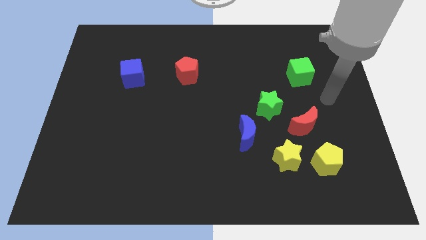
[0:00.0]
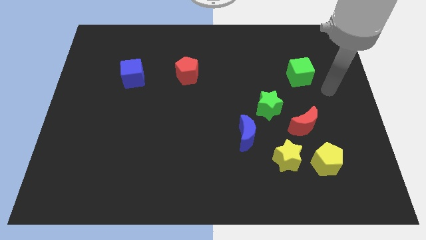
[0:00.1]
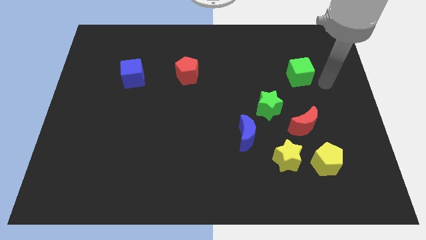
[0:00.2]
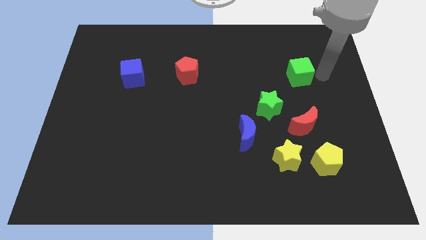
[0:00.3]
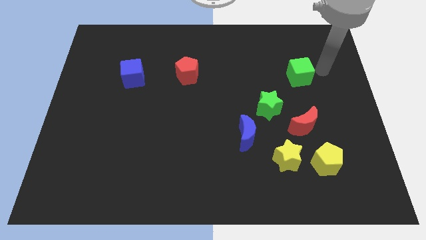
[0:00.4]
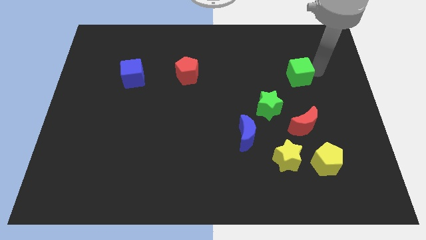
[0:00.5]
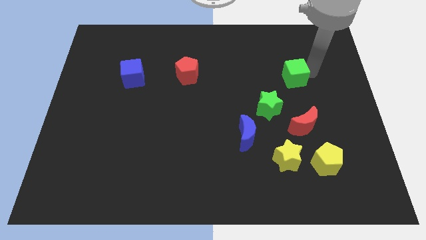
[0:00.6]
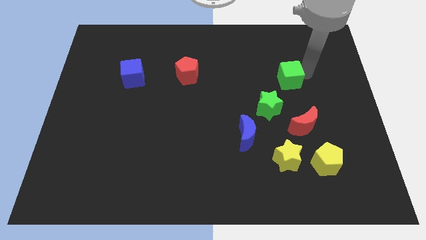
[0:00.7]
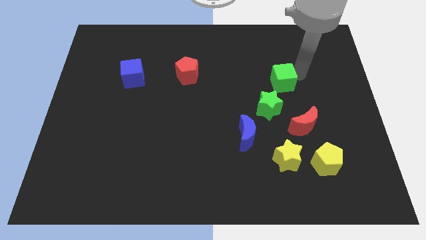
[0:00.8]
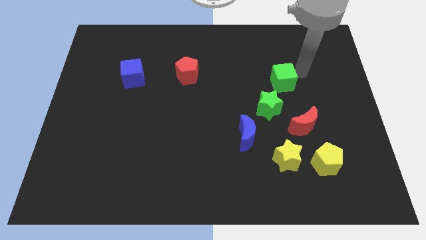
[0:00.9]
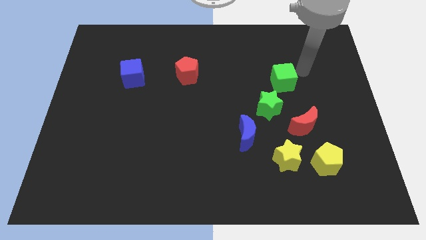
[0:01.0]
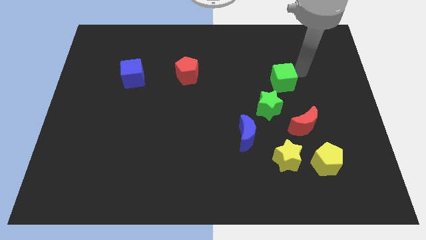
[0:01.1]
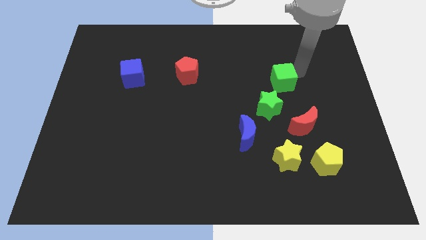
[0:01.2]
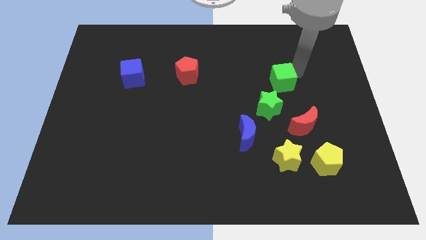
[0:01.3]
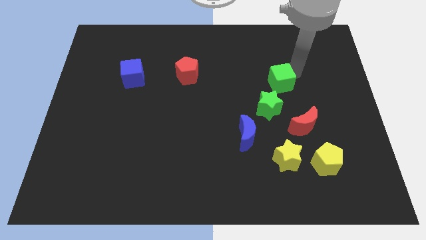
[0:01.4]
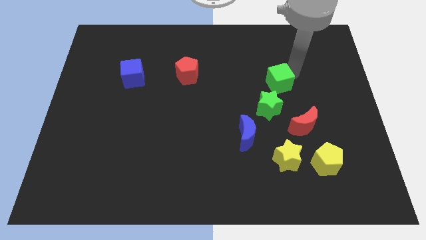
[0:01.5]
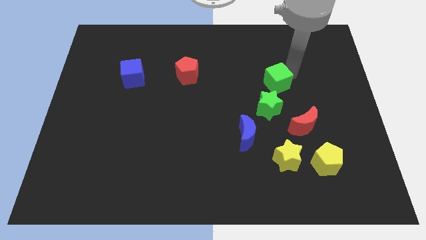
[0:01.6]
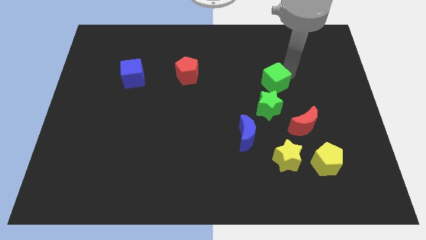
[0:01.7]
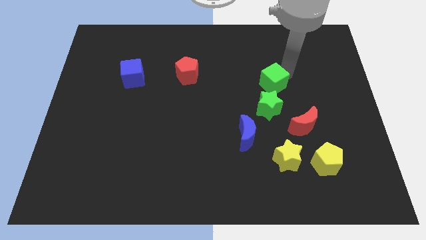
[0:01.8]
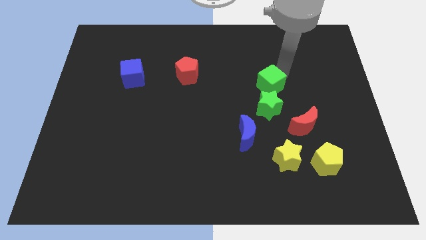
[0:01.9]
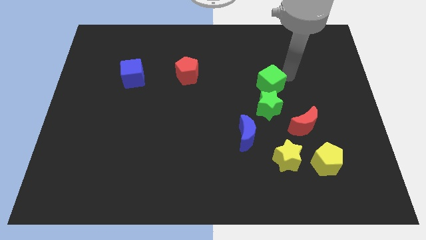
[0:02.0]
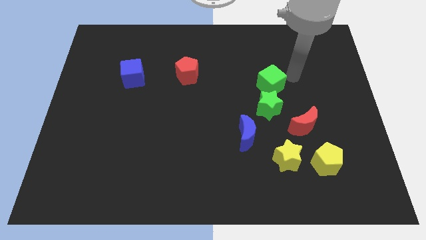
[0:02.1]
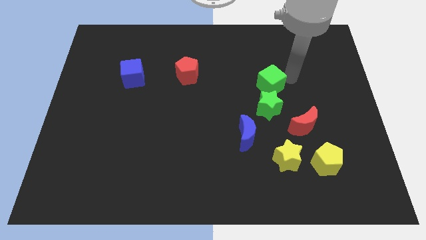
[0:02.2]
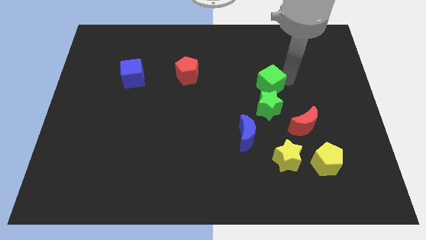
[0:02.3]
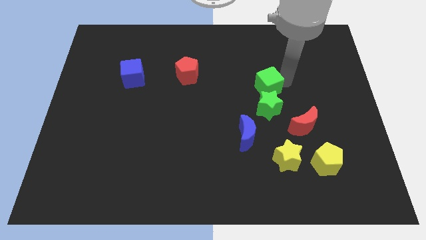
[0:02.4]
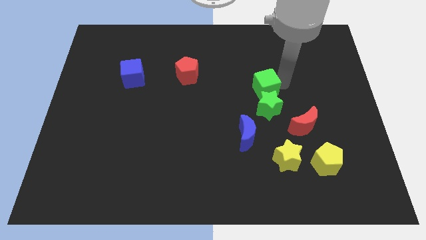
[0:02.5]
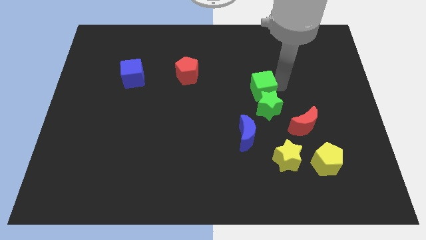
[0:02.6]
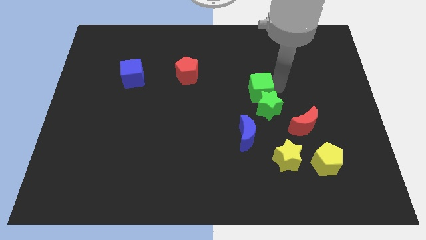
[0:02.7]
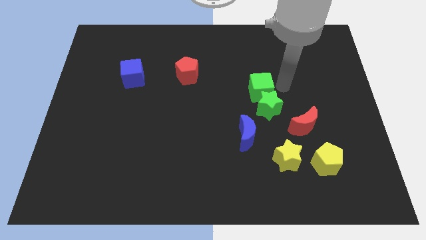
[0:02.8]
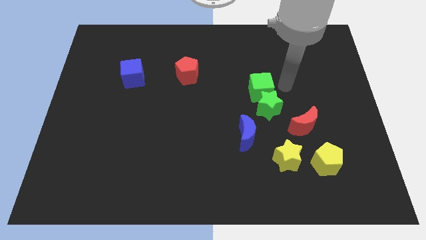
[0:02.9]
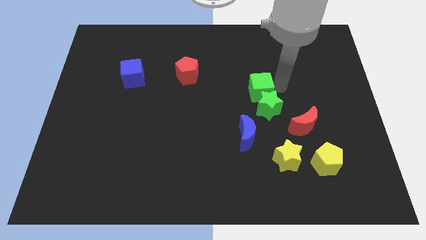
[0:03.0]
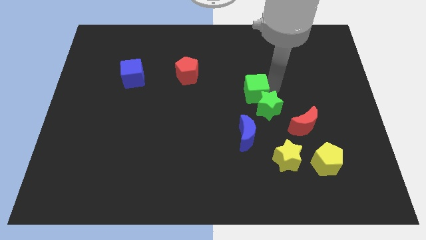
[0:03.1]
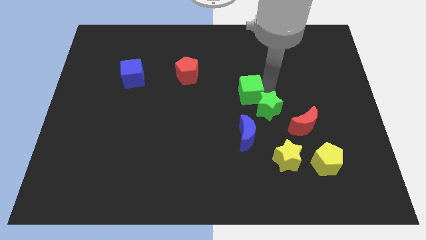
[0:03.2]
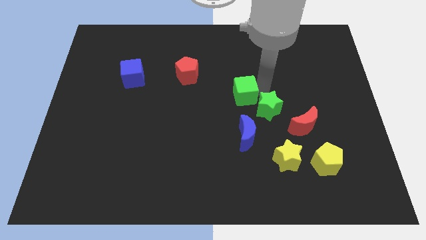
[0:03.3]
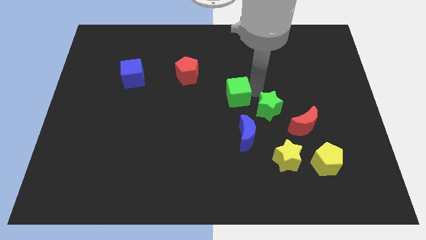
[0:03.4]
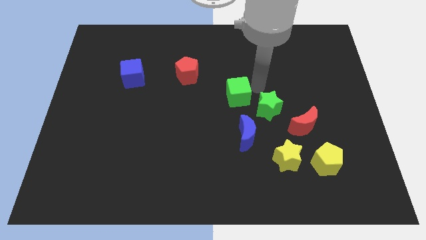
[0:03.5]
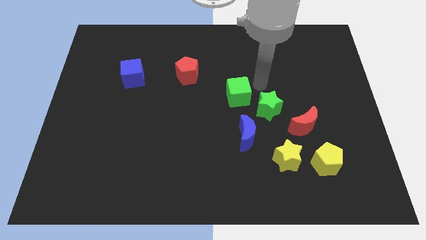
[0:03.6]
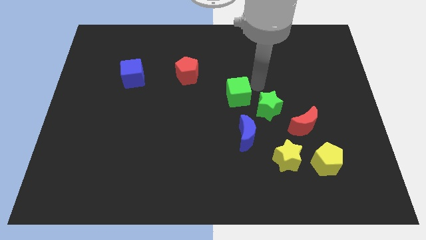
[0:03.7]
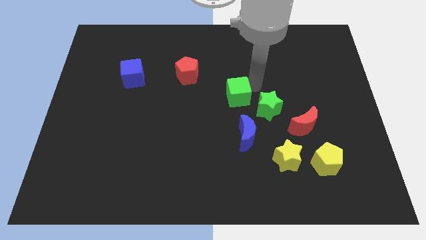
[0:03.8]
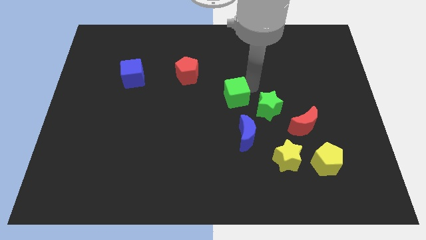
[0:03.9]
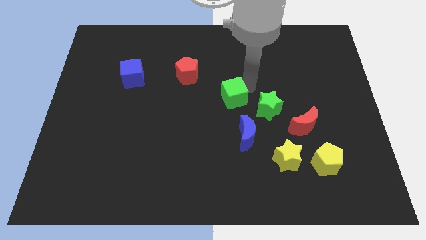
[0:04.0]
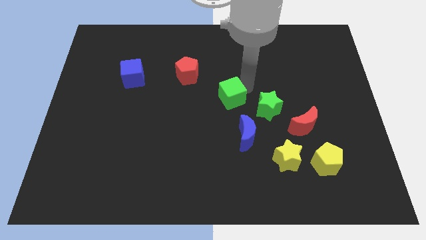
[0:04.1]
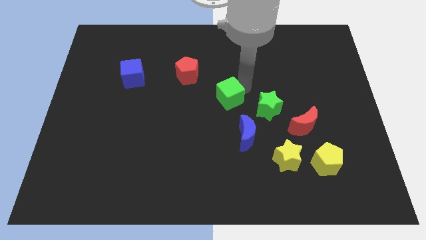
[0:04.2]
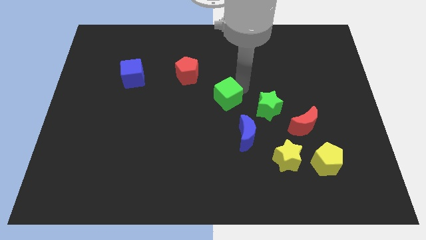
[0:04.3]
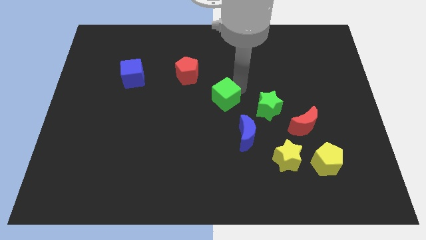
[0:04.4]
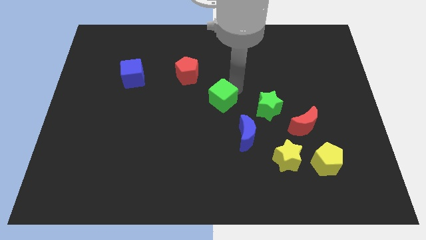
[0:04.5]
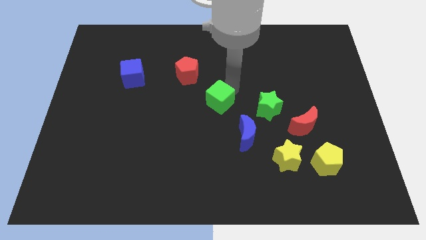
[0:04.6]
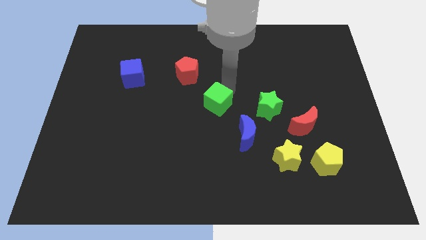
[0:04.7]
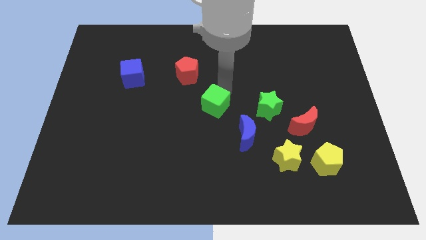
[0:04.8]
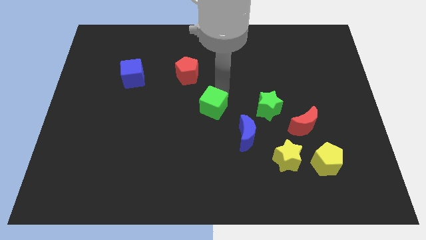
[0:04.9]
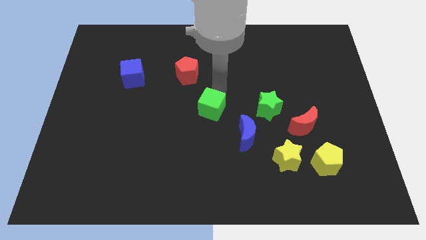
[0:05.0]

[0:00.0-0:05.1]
push the green cube downwards and left

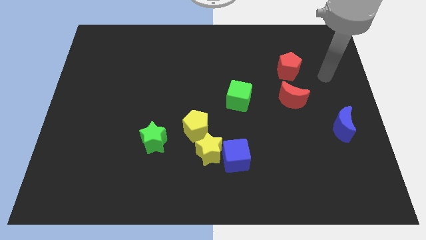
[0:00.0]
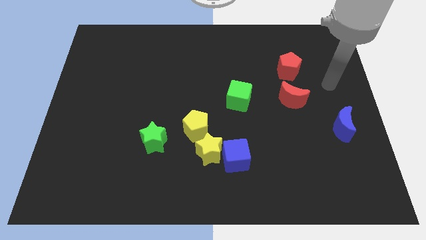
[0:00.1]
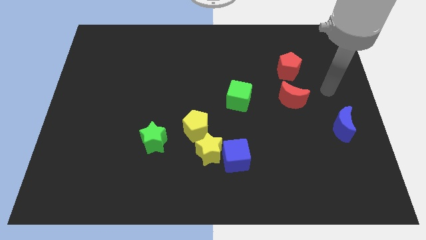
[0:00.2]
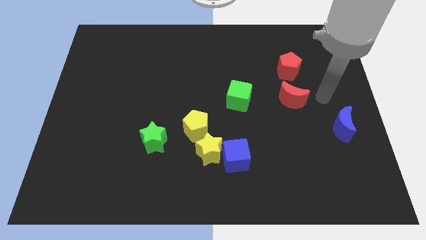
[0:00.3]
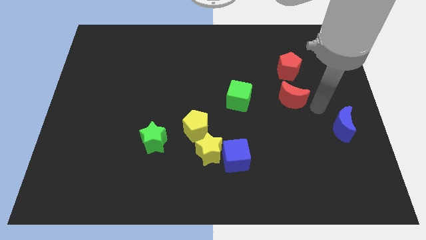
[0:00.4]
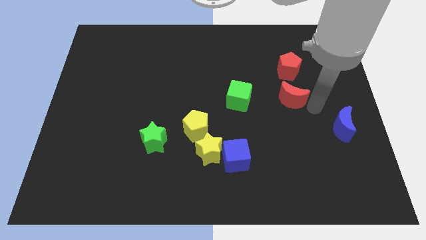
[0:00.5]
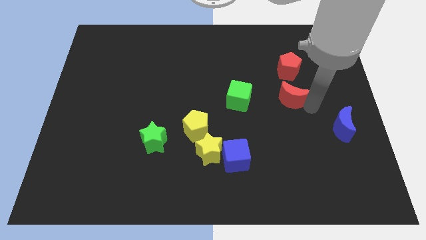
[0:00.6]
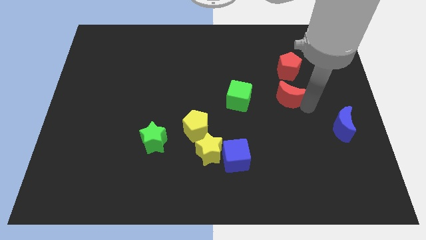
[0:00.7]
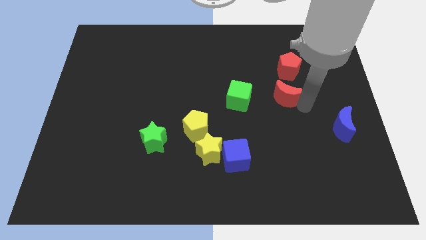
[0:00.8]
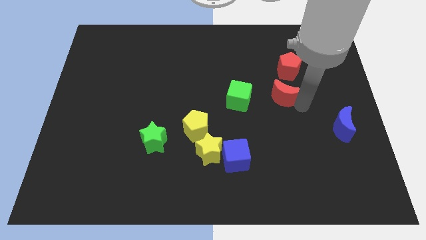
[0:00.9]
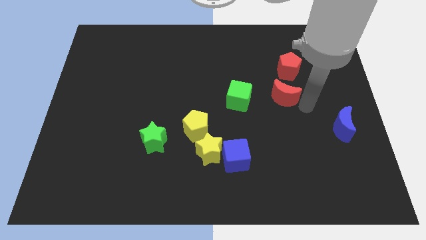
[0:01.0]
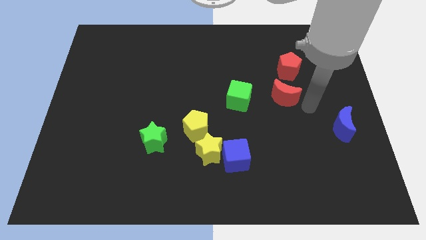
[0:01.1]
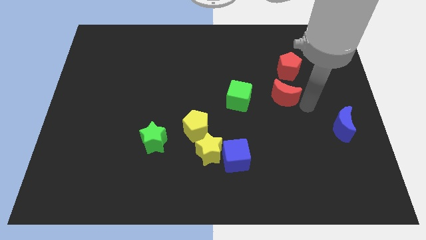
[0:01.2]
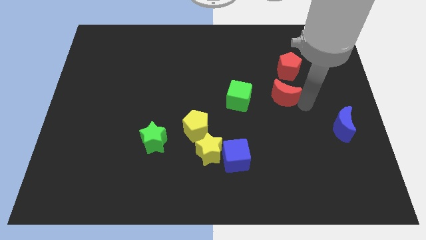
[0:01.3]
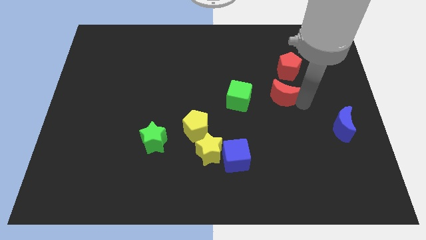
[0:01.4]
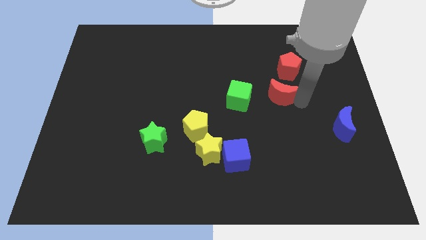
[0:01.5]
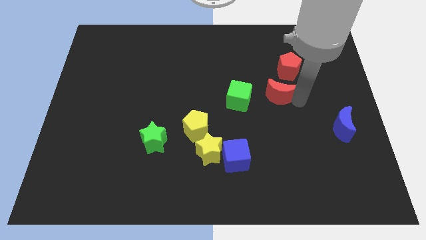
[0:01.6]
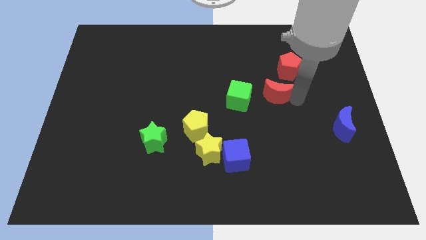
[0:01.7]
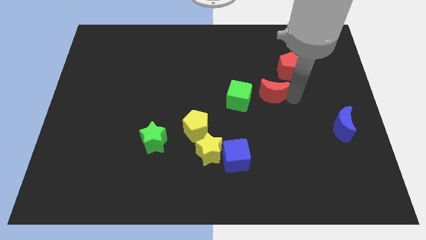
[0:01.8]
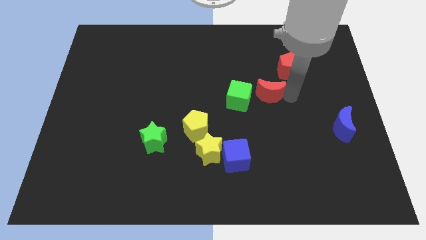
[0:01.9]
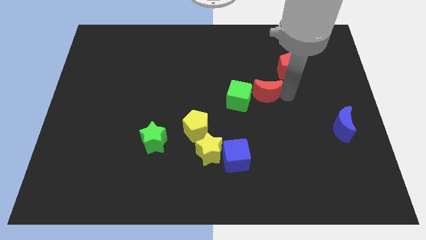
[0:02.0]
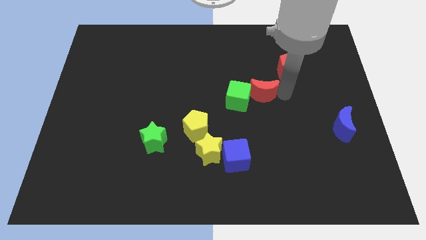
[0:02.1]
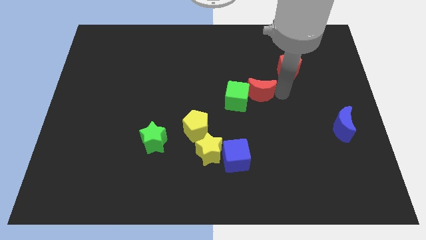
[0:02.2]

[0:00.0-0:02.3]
slightly move the red moon left

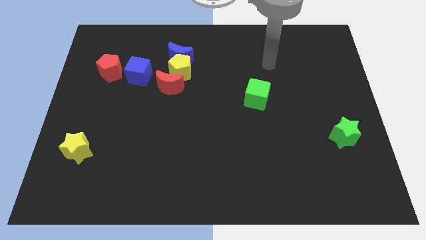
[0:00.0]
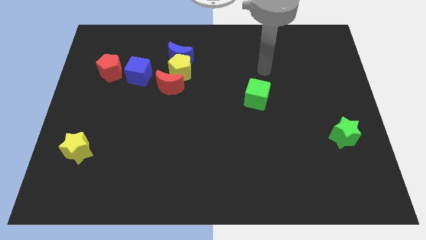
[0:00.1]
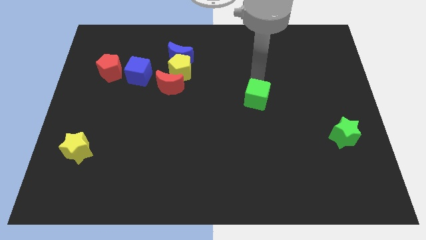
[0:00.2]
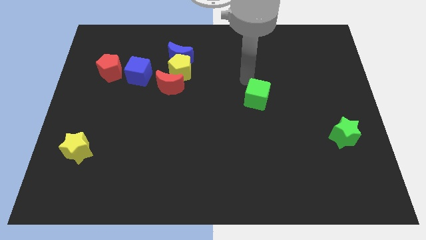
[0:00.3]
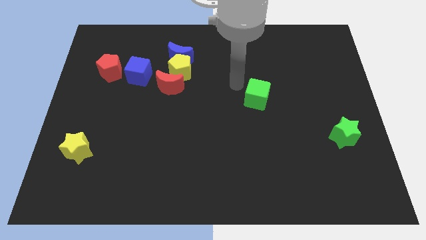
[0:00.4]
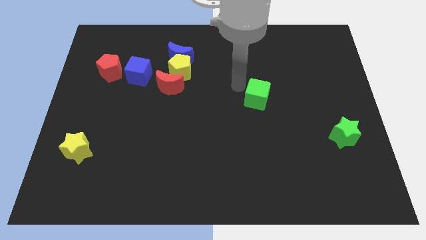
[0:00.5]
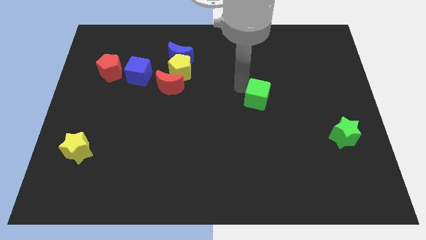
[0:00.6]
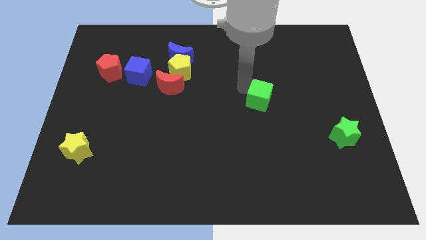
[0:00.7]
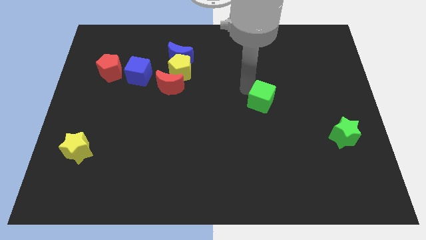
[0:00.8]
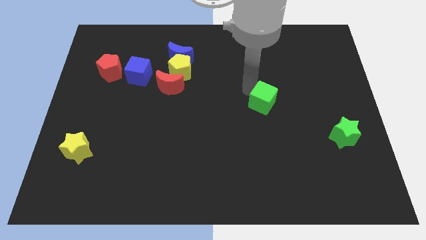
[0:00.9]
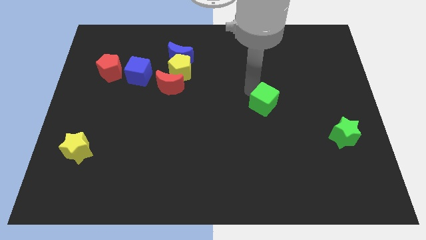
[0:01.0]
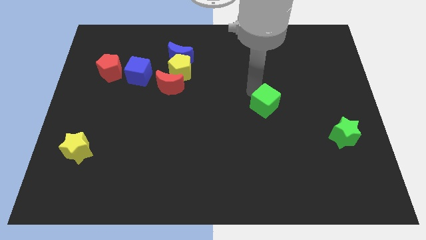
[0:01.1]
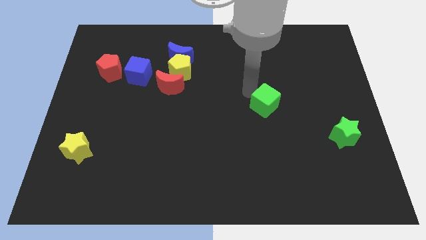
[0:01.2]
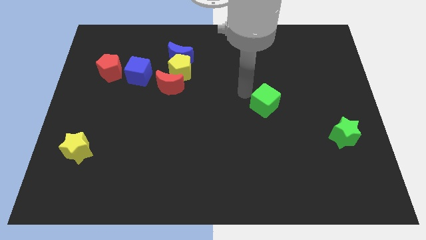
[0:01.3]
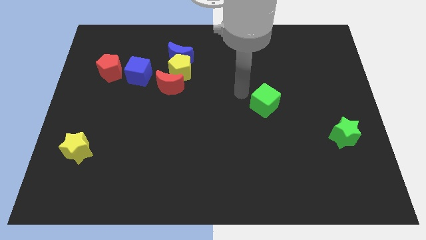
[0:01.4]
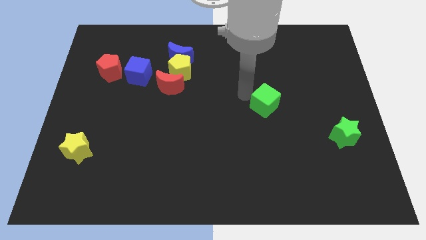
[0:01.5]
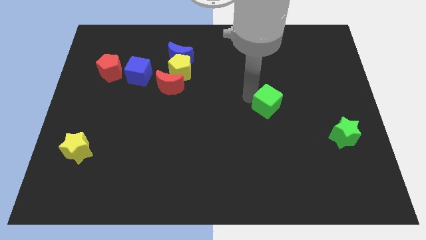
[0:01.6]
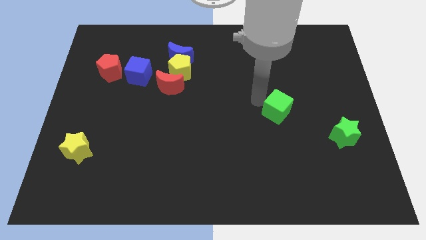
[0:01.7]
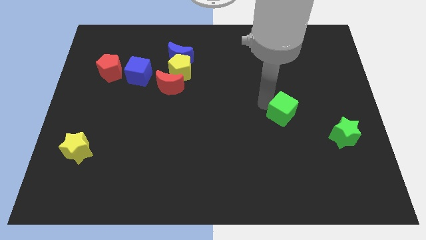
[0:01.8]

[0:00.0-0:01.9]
slightly push the green cube down and to the right
